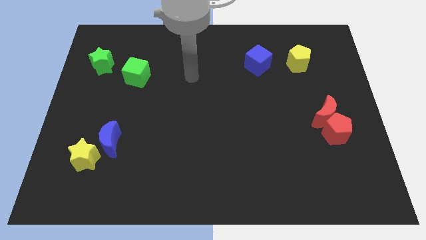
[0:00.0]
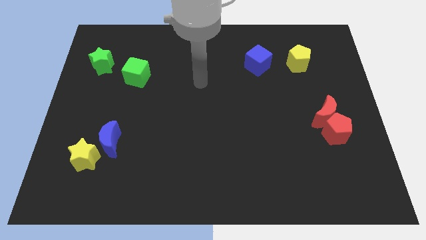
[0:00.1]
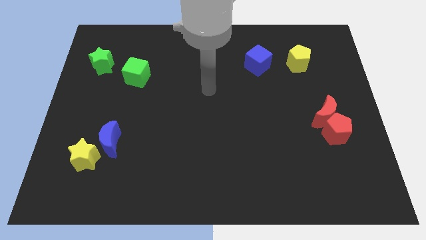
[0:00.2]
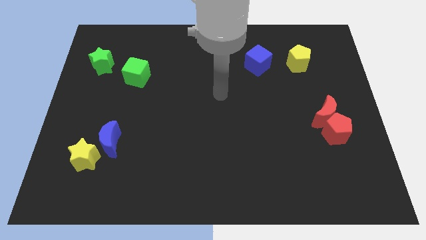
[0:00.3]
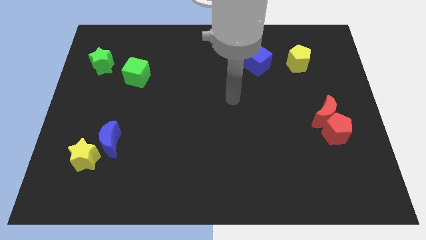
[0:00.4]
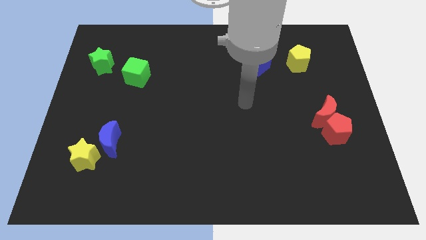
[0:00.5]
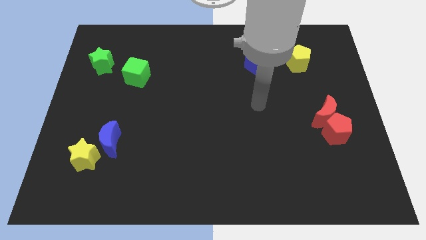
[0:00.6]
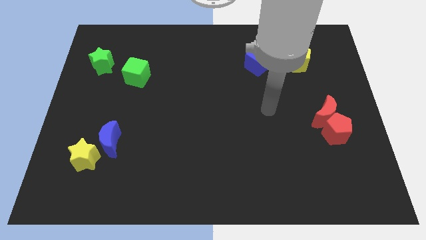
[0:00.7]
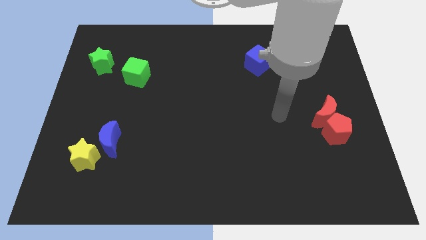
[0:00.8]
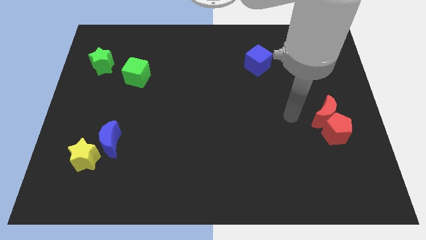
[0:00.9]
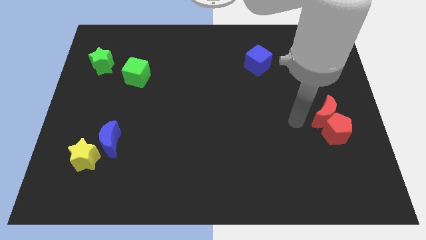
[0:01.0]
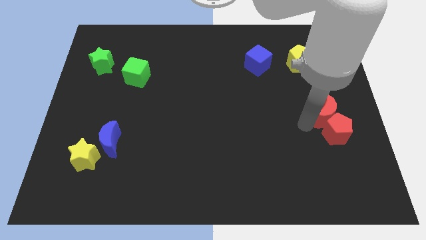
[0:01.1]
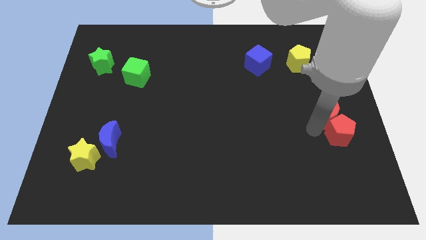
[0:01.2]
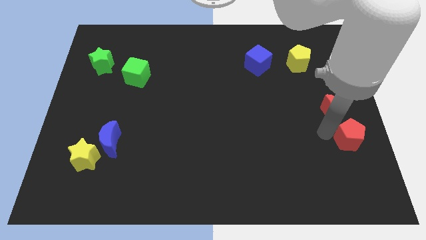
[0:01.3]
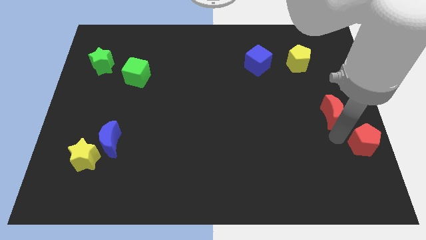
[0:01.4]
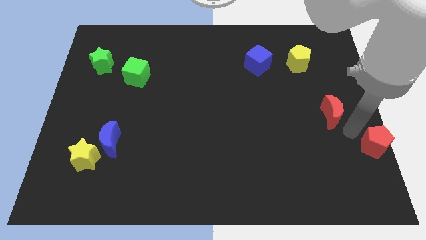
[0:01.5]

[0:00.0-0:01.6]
pull the red moon apart from the red pentagon

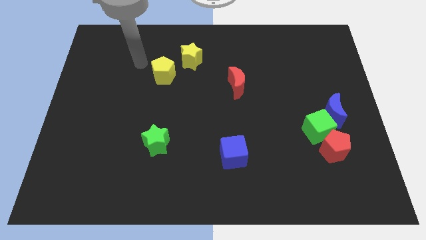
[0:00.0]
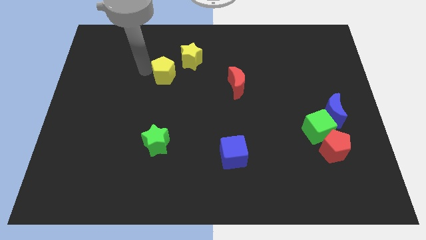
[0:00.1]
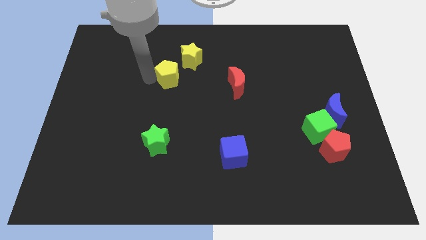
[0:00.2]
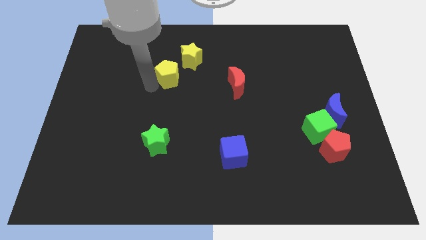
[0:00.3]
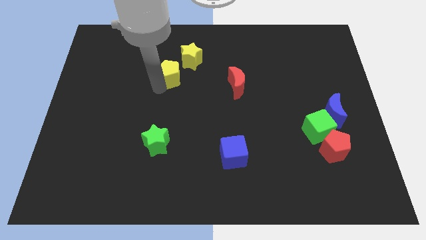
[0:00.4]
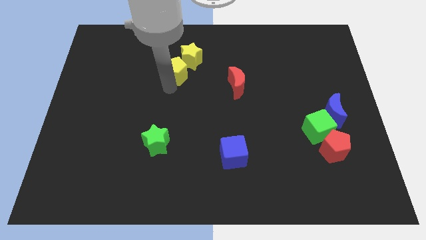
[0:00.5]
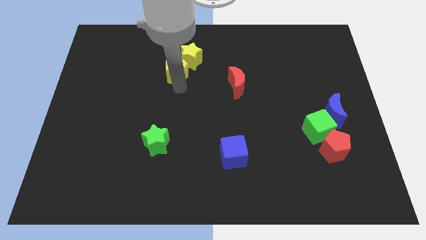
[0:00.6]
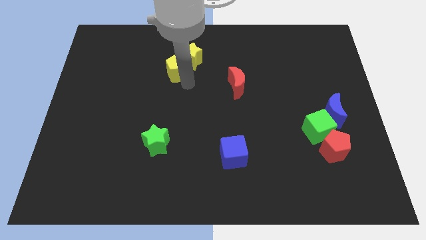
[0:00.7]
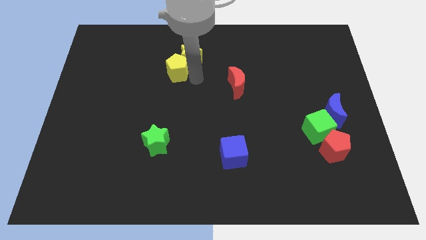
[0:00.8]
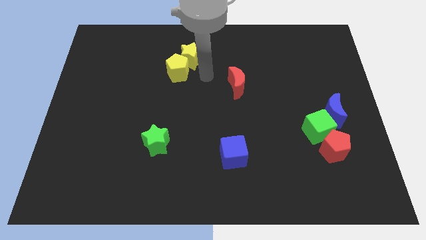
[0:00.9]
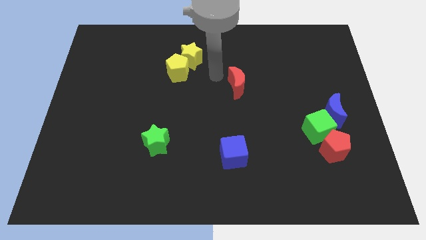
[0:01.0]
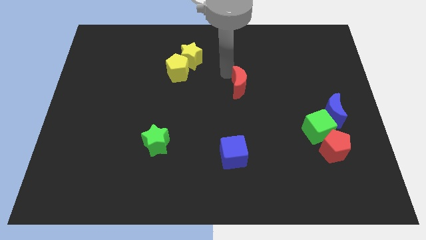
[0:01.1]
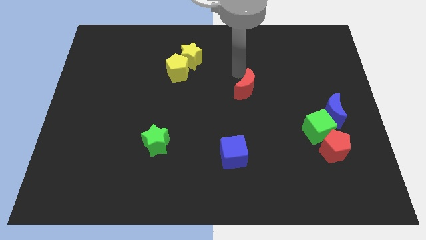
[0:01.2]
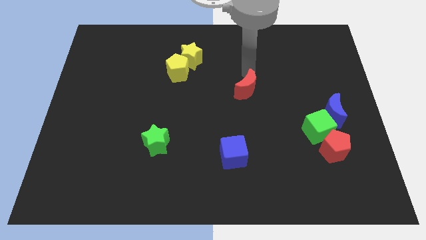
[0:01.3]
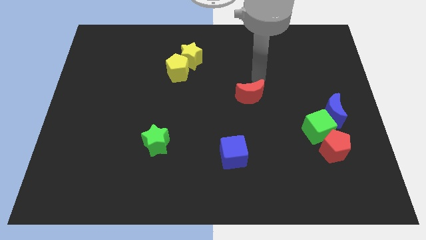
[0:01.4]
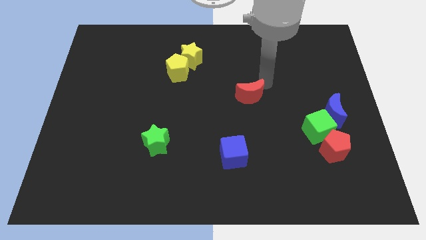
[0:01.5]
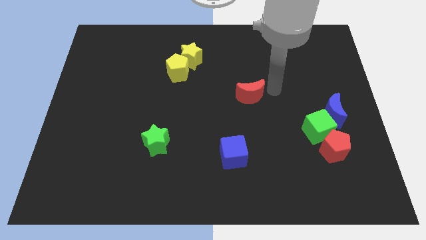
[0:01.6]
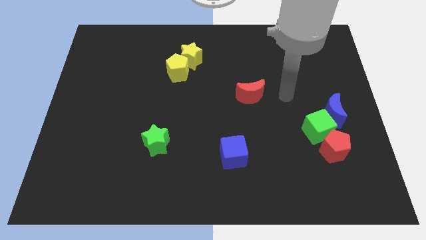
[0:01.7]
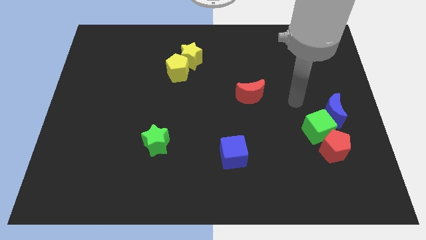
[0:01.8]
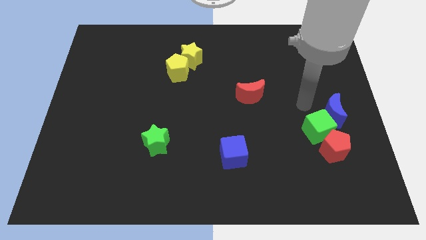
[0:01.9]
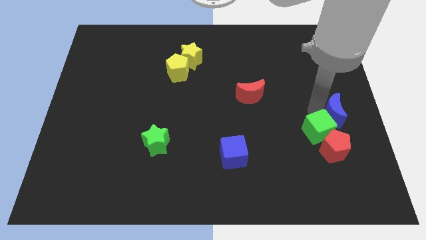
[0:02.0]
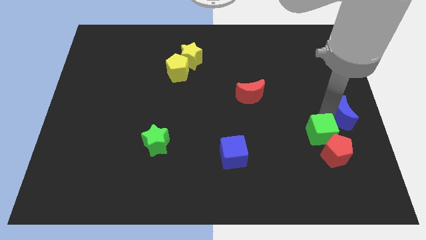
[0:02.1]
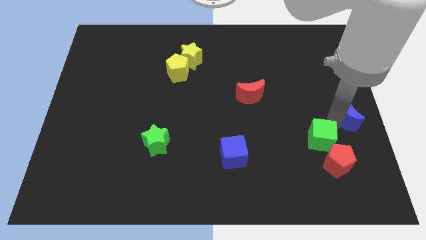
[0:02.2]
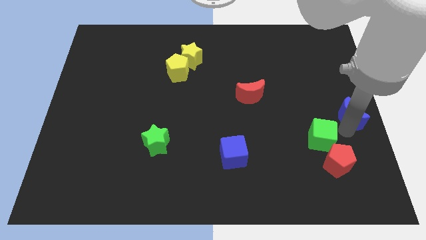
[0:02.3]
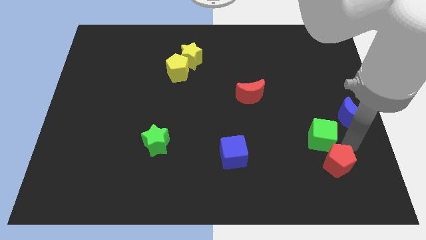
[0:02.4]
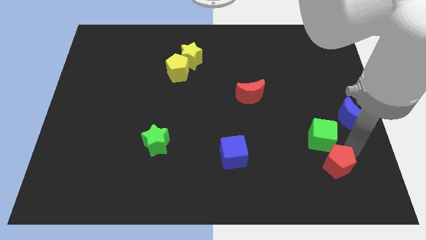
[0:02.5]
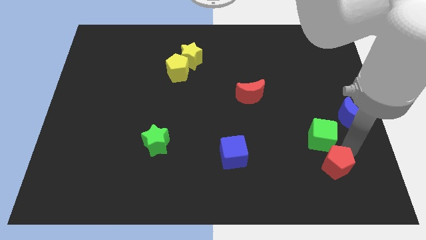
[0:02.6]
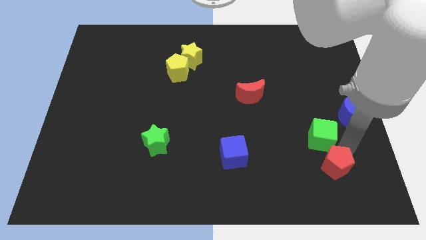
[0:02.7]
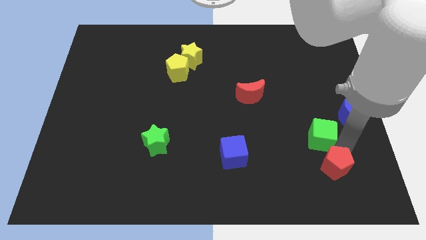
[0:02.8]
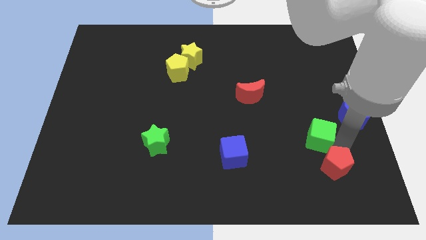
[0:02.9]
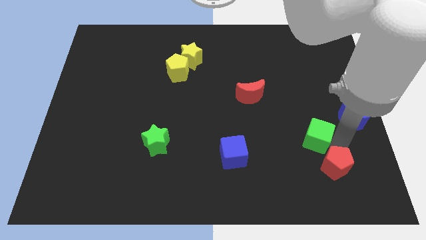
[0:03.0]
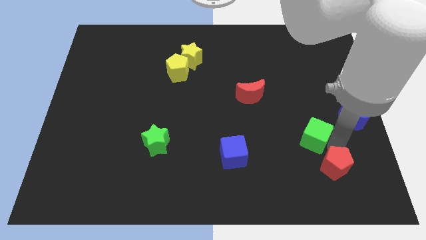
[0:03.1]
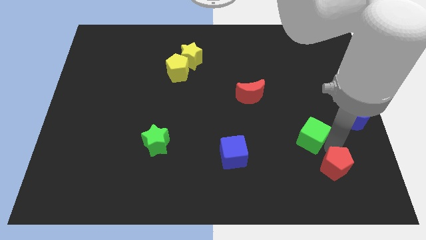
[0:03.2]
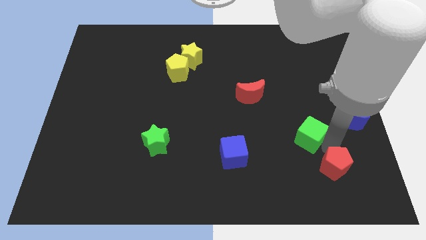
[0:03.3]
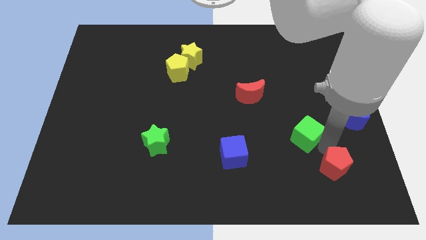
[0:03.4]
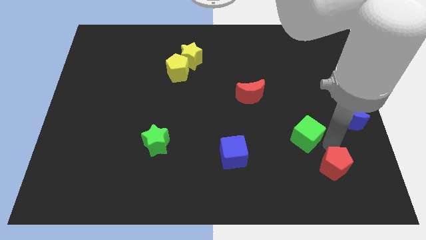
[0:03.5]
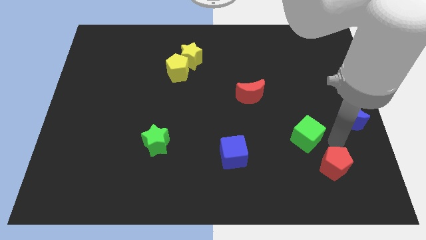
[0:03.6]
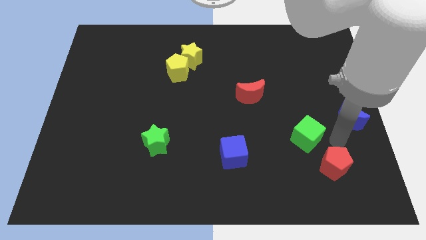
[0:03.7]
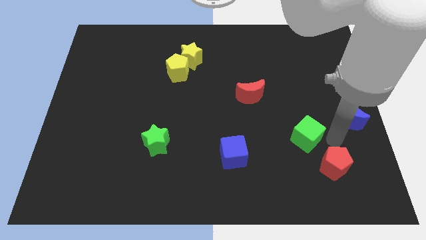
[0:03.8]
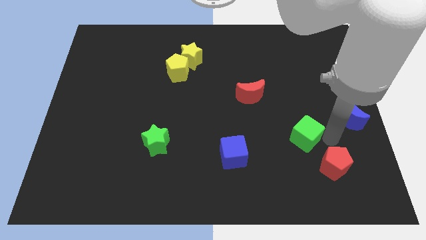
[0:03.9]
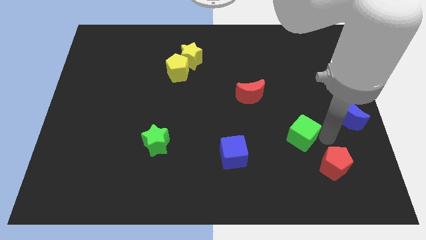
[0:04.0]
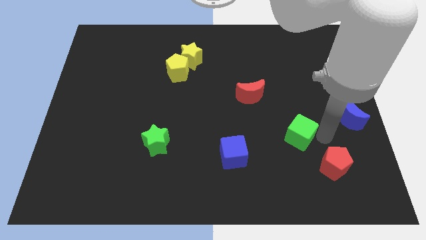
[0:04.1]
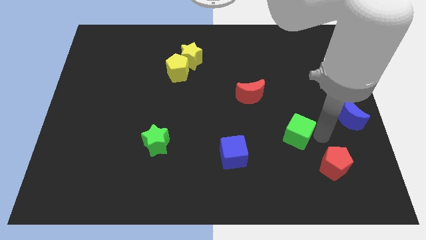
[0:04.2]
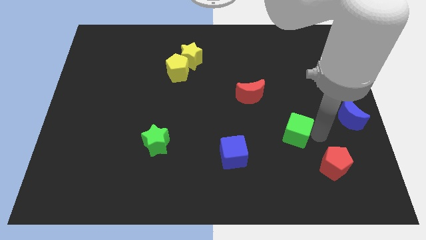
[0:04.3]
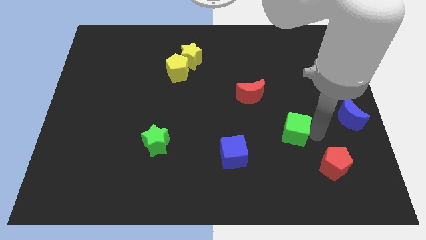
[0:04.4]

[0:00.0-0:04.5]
separate the green cube from the red pentagon and blue moon

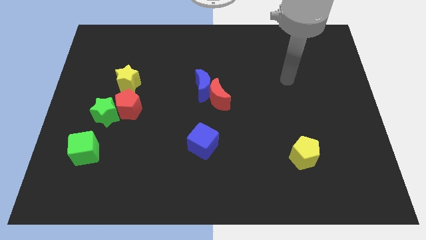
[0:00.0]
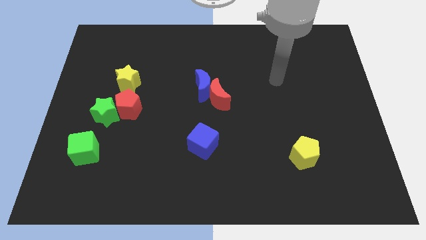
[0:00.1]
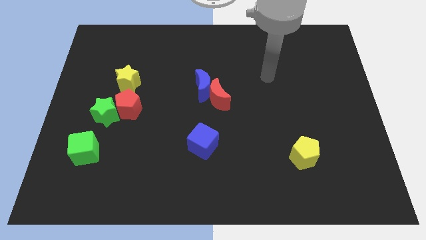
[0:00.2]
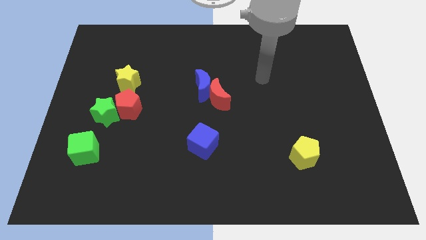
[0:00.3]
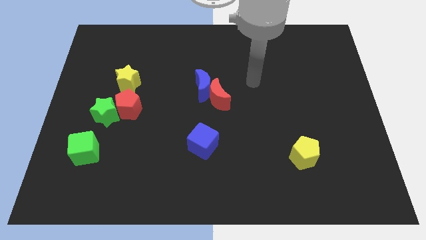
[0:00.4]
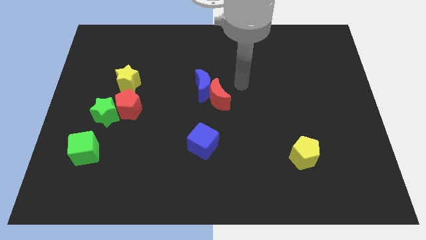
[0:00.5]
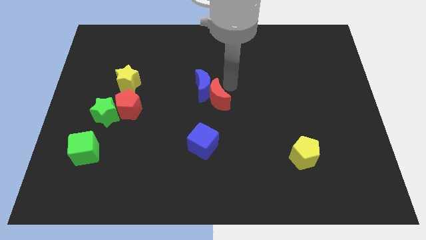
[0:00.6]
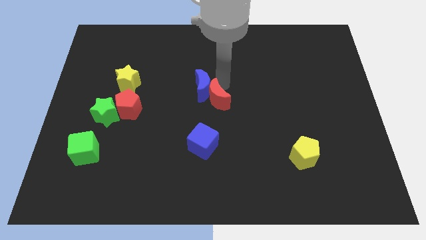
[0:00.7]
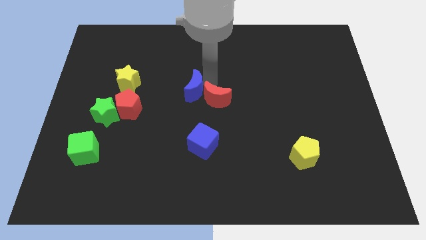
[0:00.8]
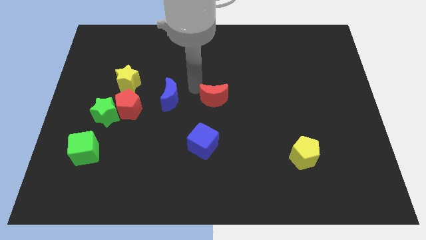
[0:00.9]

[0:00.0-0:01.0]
pull the red moon apart from the blue moon

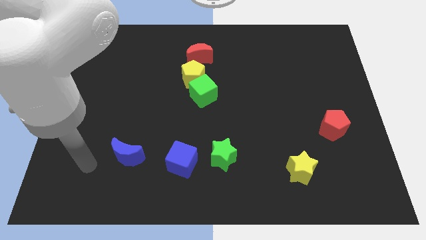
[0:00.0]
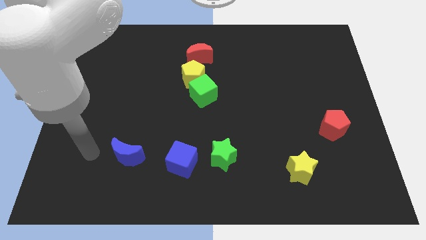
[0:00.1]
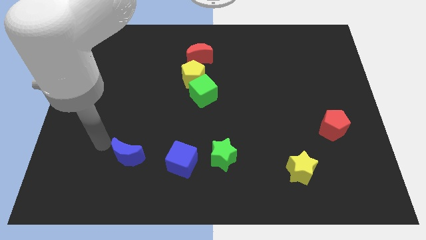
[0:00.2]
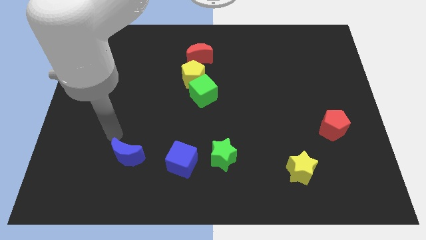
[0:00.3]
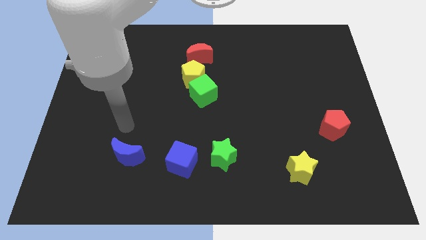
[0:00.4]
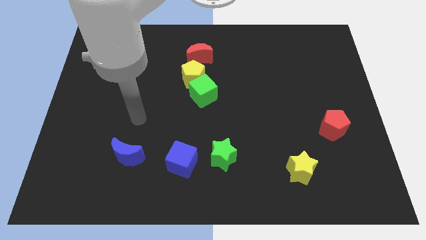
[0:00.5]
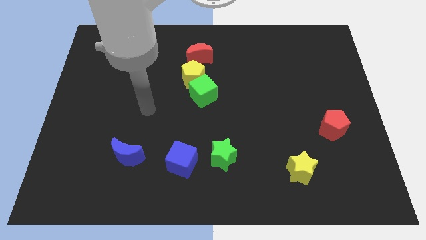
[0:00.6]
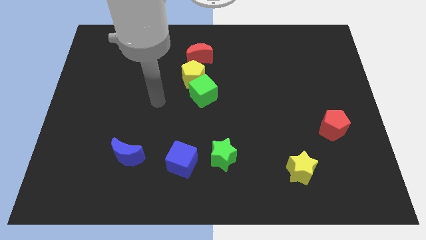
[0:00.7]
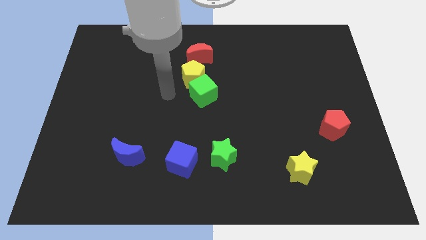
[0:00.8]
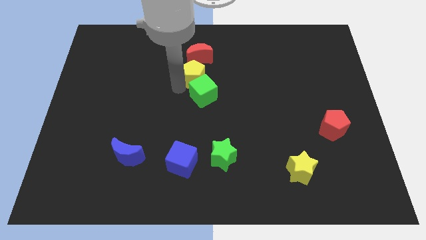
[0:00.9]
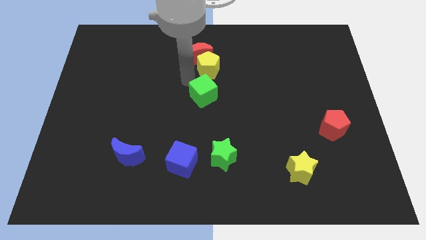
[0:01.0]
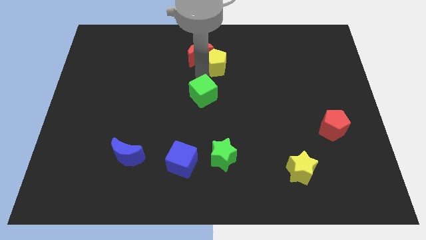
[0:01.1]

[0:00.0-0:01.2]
pull the green cube apart from the yellow pentagon

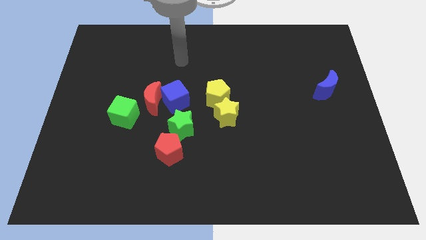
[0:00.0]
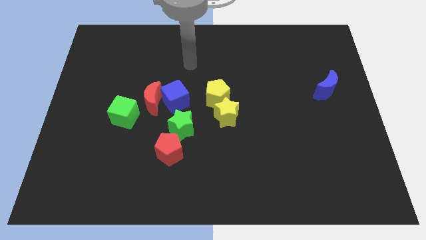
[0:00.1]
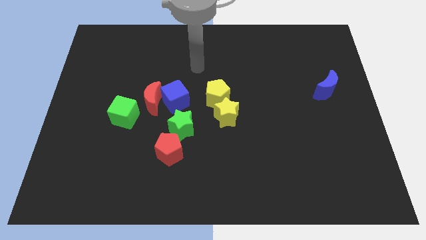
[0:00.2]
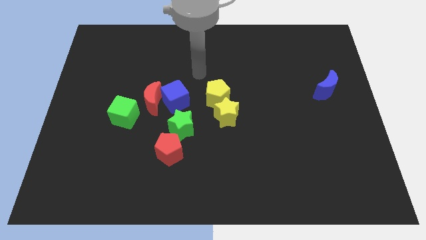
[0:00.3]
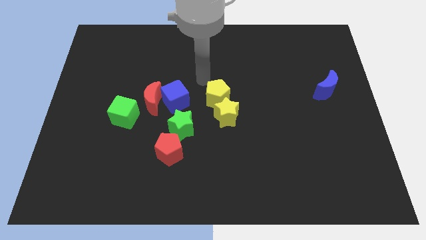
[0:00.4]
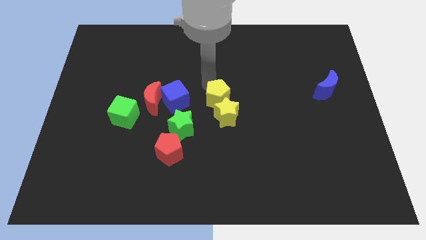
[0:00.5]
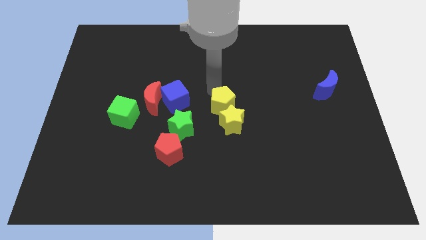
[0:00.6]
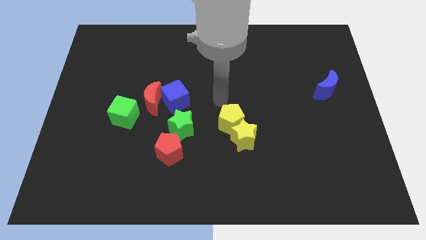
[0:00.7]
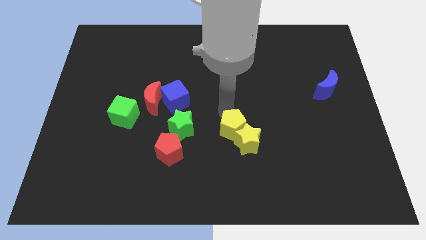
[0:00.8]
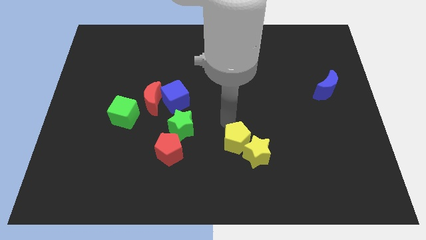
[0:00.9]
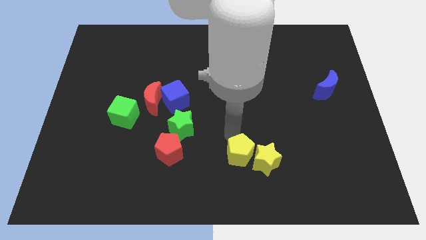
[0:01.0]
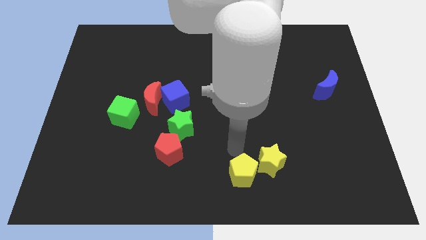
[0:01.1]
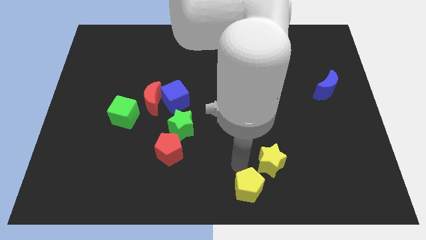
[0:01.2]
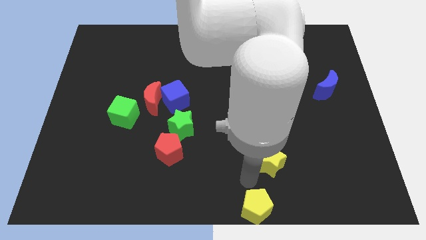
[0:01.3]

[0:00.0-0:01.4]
separate the yellow star from the yellow pentagon
